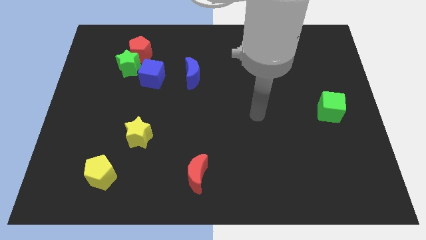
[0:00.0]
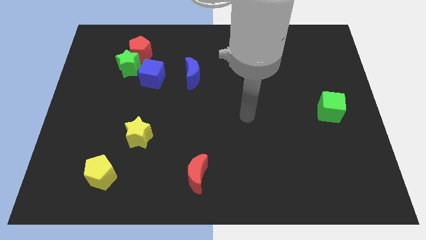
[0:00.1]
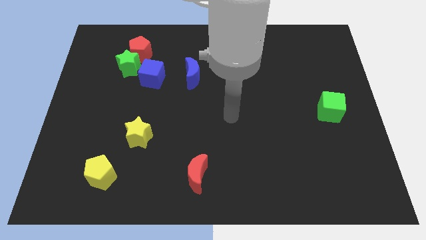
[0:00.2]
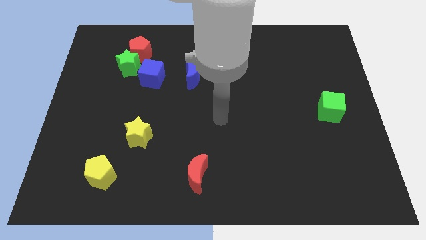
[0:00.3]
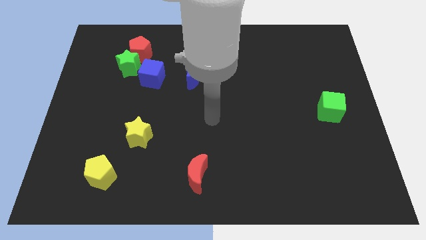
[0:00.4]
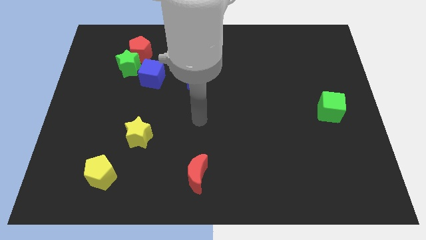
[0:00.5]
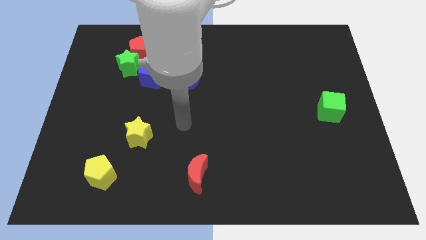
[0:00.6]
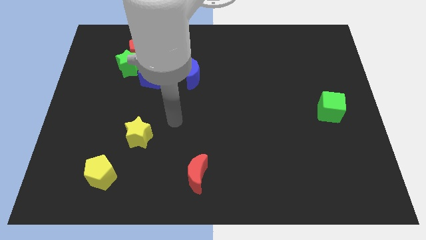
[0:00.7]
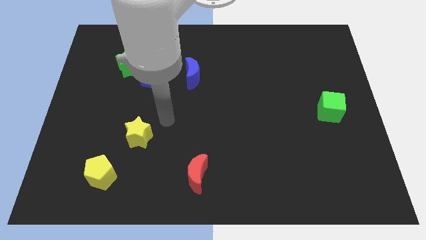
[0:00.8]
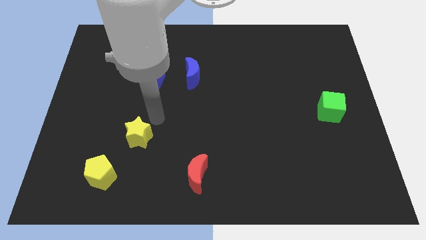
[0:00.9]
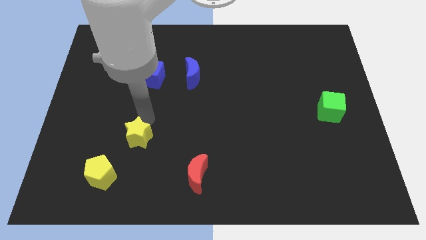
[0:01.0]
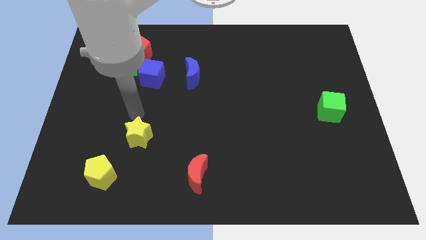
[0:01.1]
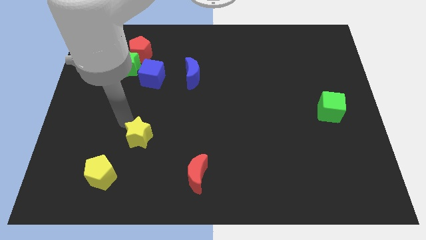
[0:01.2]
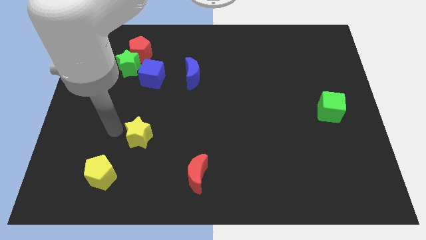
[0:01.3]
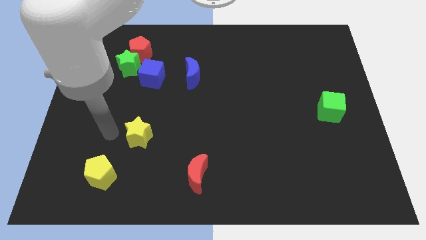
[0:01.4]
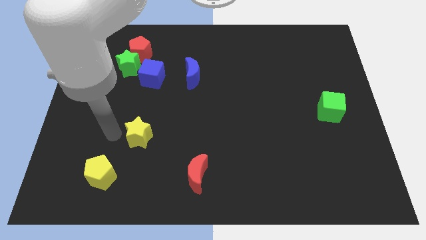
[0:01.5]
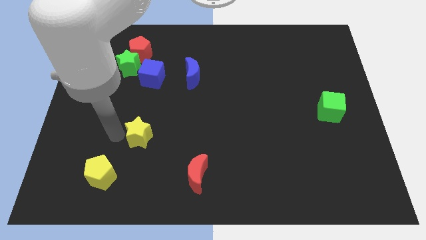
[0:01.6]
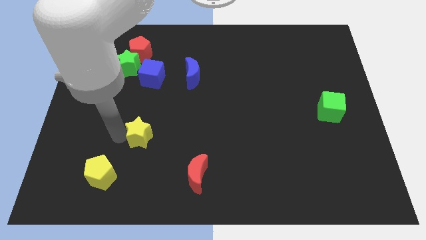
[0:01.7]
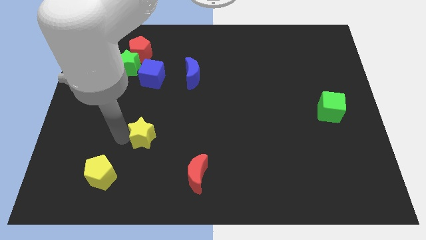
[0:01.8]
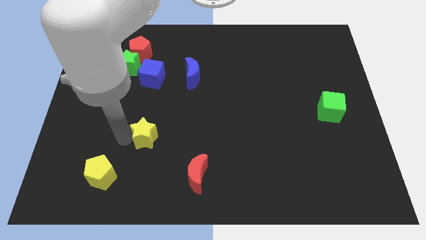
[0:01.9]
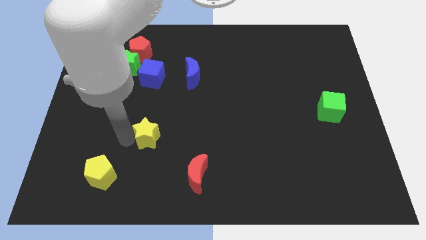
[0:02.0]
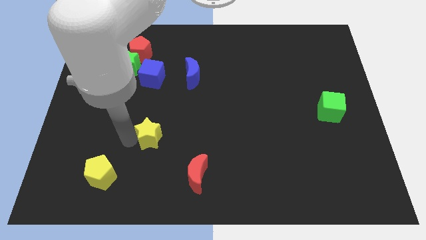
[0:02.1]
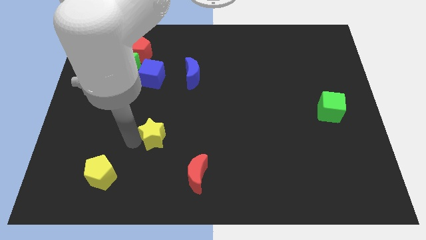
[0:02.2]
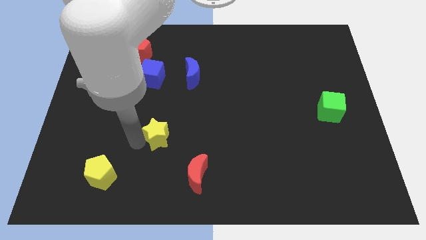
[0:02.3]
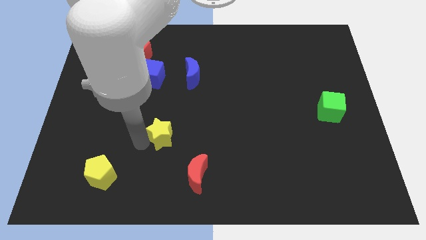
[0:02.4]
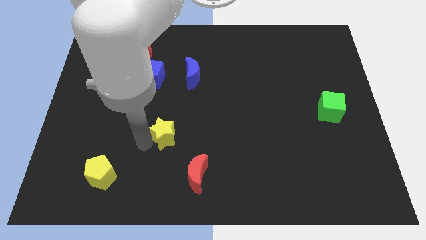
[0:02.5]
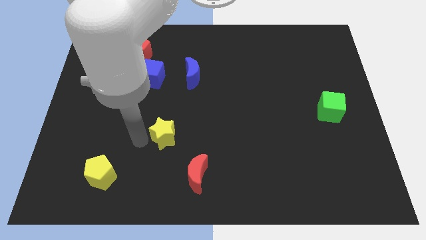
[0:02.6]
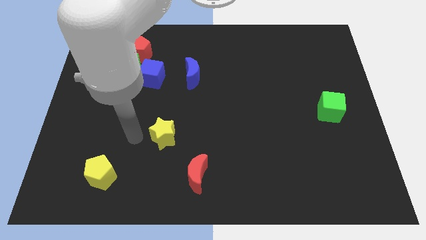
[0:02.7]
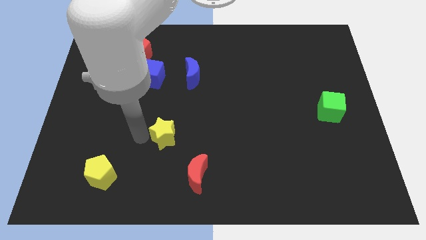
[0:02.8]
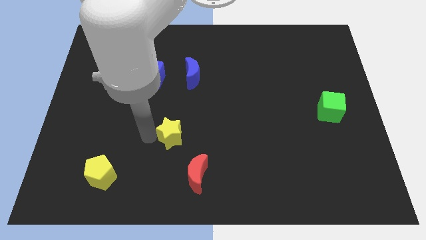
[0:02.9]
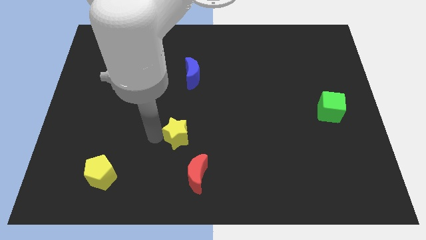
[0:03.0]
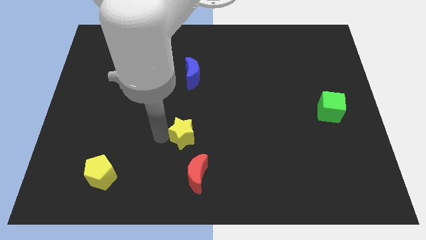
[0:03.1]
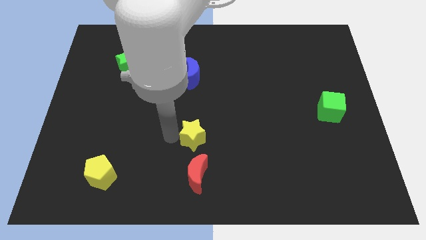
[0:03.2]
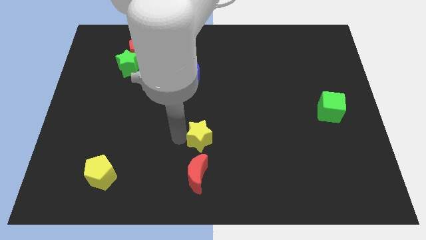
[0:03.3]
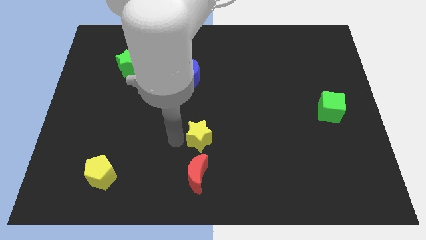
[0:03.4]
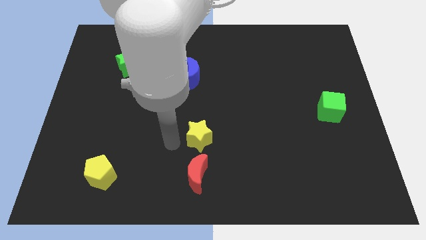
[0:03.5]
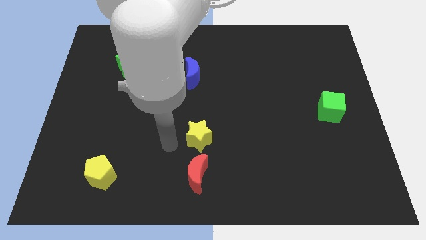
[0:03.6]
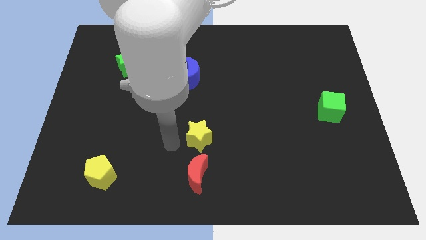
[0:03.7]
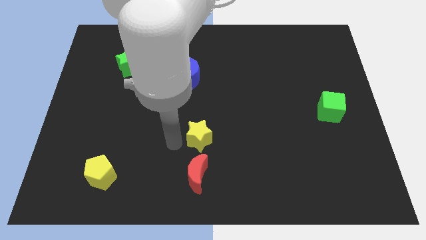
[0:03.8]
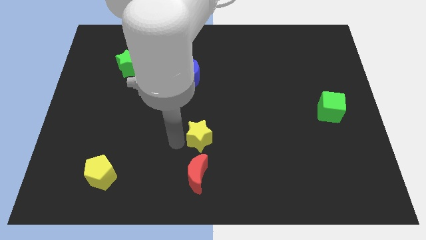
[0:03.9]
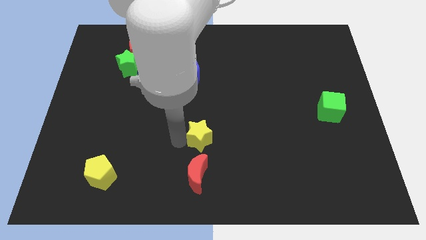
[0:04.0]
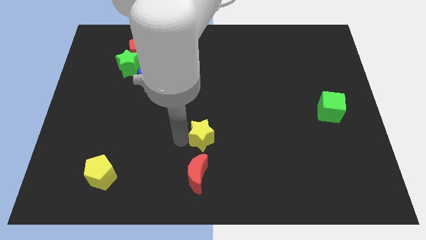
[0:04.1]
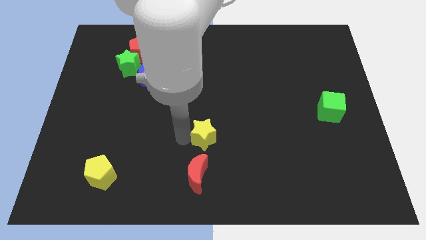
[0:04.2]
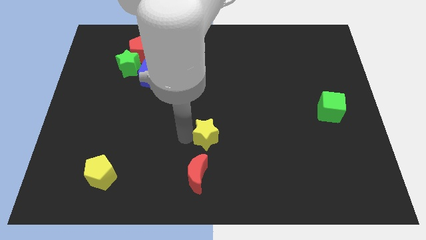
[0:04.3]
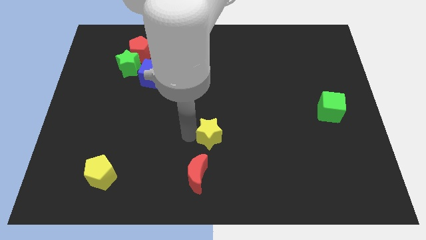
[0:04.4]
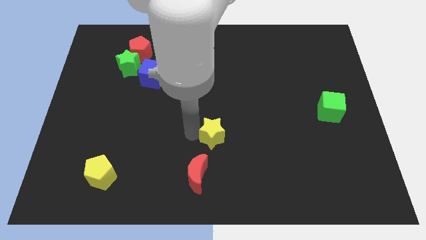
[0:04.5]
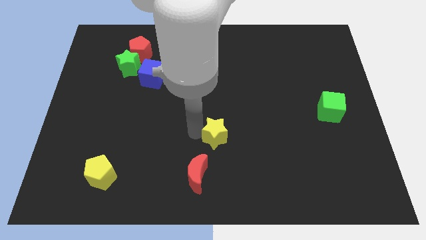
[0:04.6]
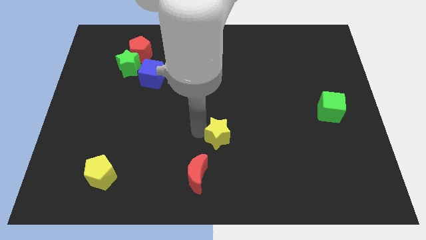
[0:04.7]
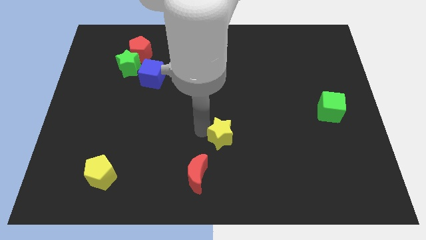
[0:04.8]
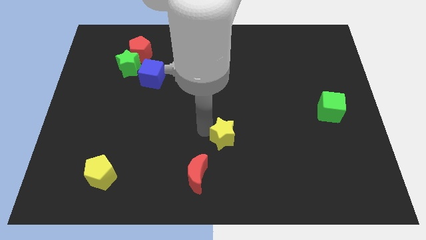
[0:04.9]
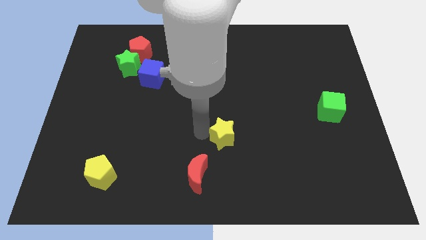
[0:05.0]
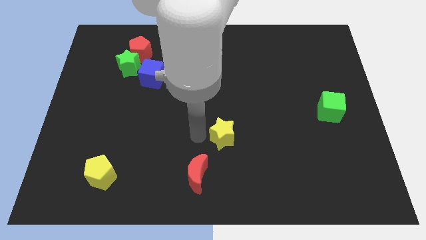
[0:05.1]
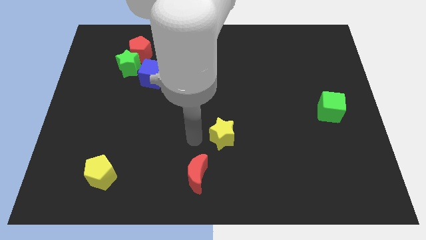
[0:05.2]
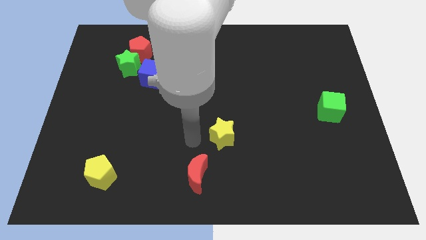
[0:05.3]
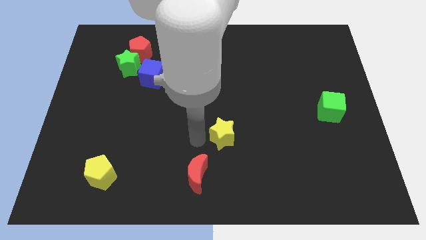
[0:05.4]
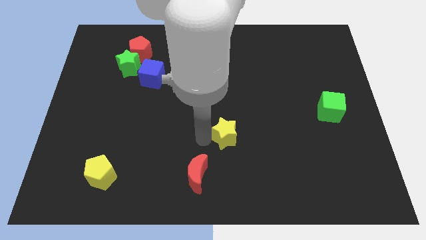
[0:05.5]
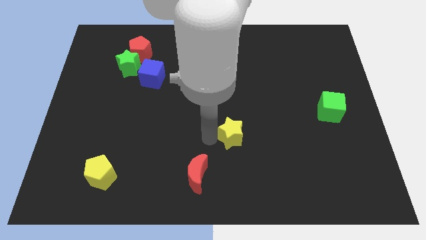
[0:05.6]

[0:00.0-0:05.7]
slide the yellow star right

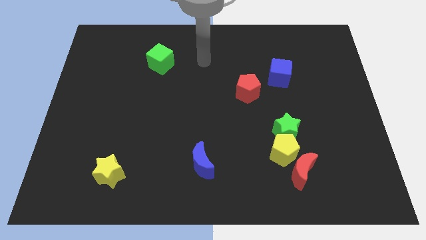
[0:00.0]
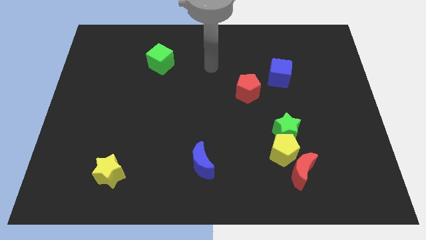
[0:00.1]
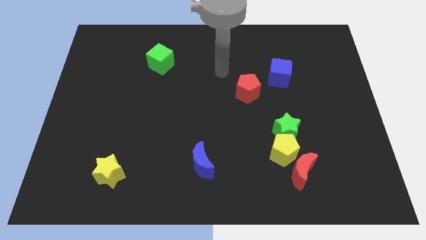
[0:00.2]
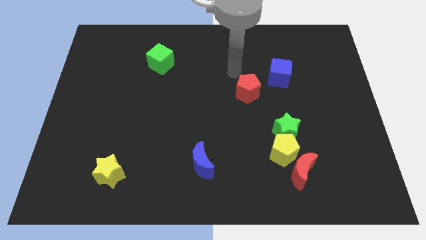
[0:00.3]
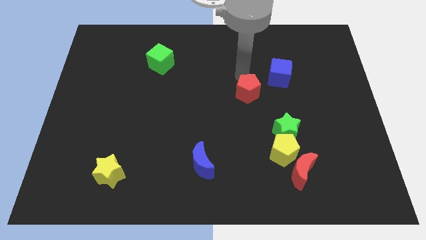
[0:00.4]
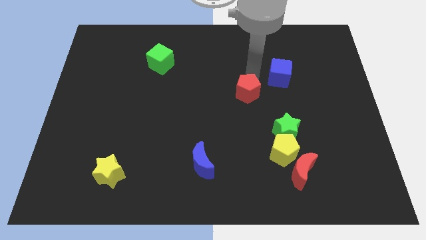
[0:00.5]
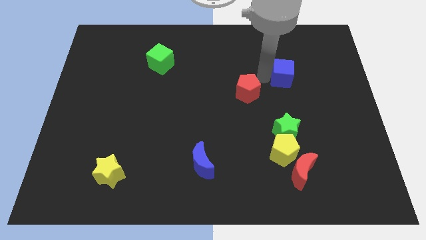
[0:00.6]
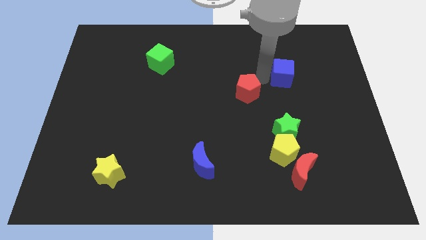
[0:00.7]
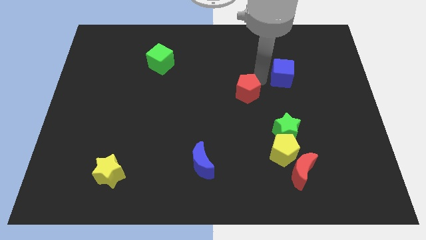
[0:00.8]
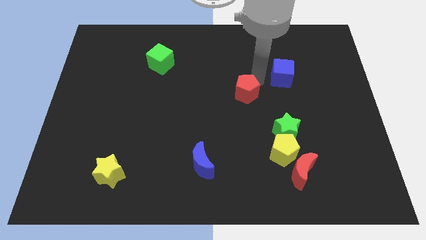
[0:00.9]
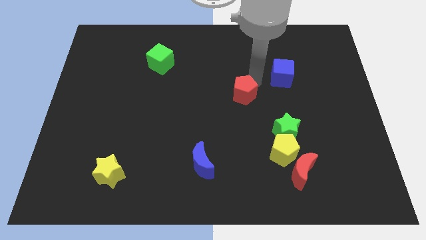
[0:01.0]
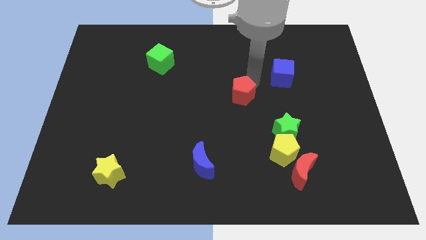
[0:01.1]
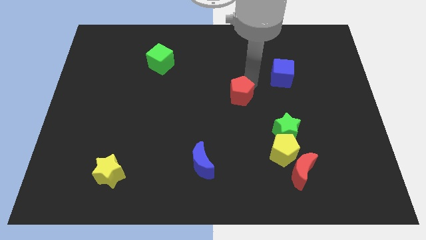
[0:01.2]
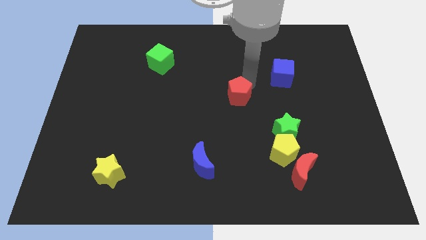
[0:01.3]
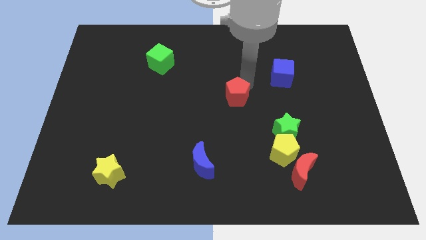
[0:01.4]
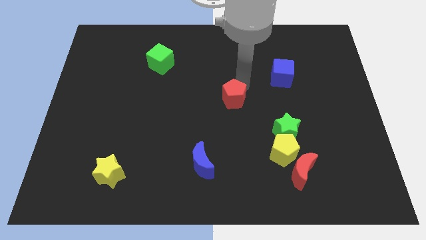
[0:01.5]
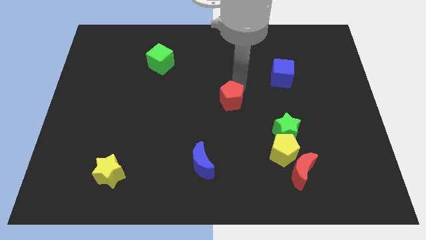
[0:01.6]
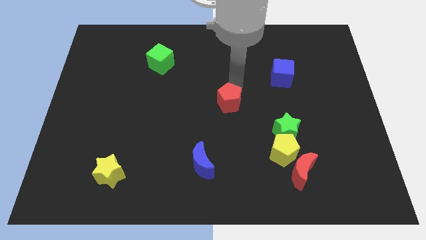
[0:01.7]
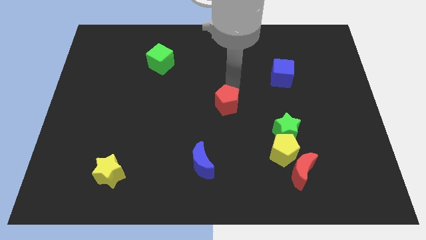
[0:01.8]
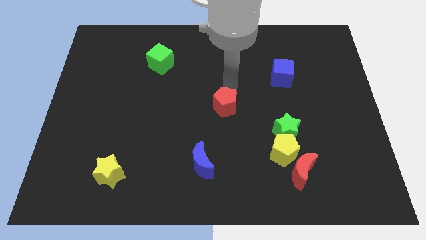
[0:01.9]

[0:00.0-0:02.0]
move the red pentagon down and left diagonally a bit

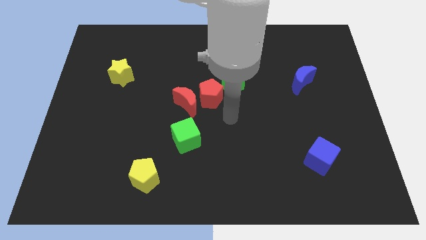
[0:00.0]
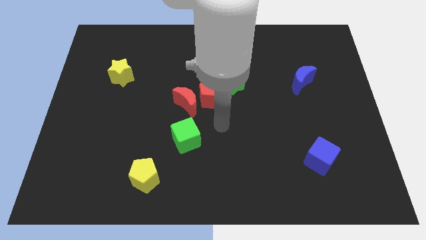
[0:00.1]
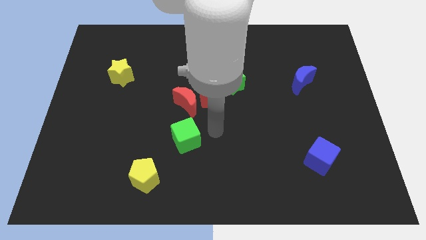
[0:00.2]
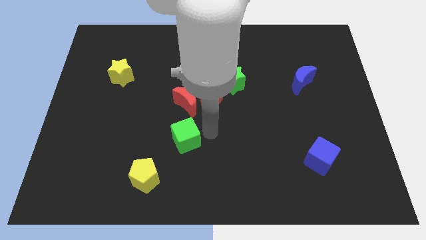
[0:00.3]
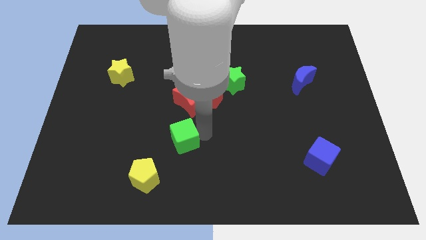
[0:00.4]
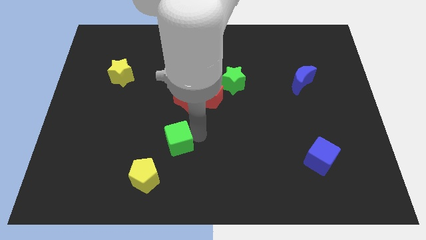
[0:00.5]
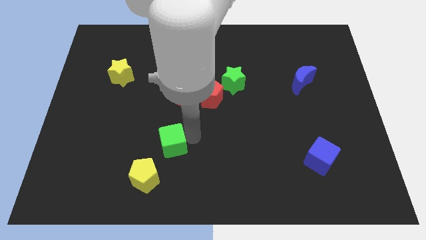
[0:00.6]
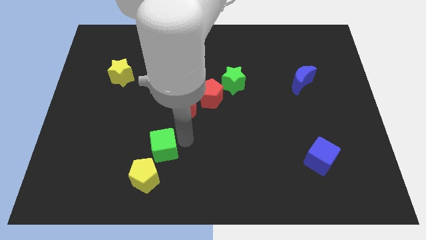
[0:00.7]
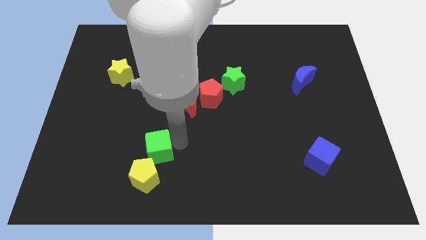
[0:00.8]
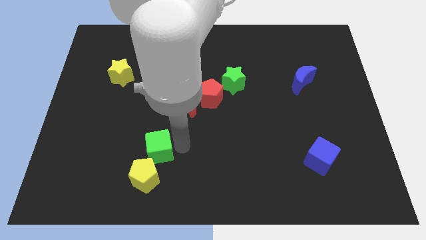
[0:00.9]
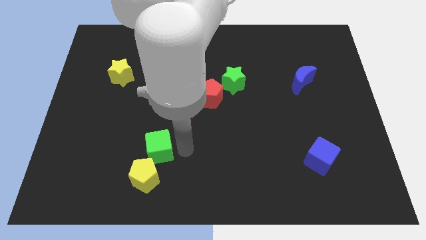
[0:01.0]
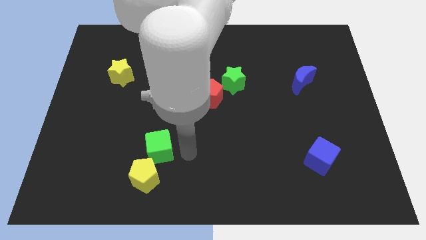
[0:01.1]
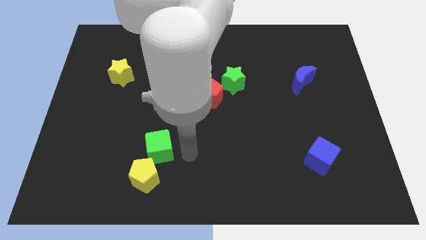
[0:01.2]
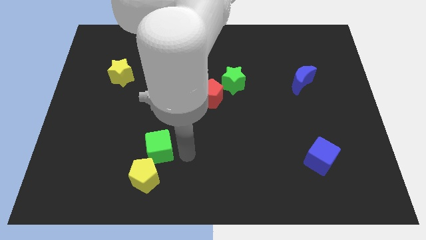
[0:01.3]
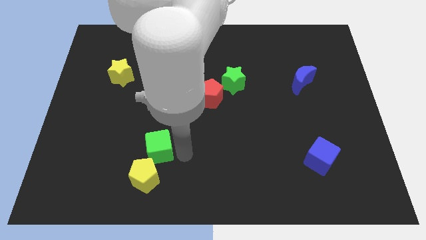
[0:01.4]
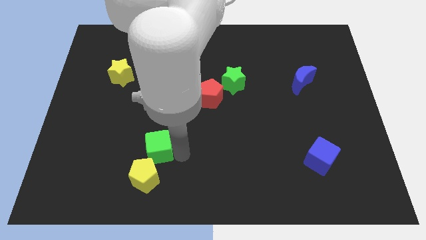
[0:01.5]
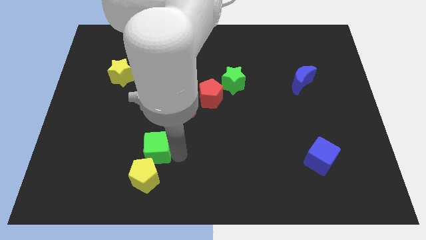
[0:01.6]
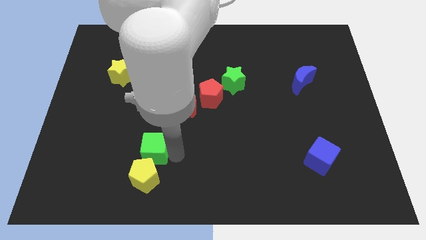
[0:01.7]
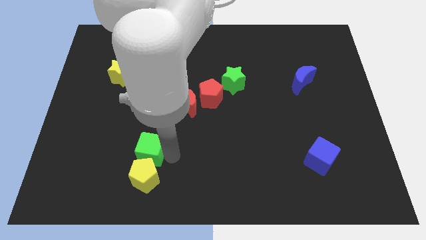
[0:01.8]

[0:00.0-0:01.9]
slightly push the green cube left
